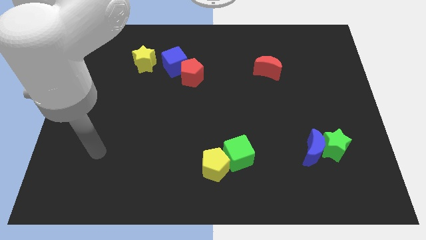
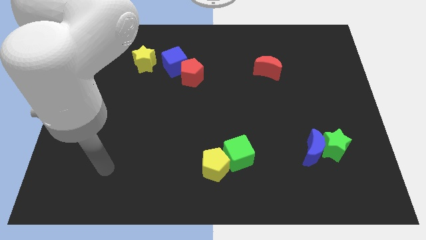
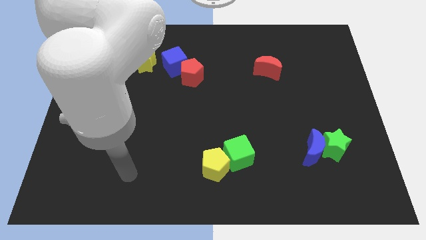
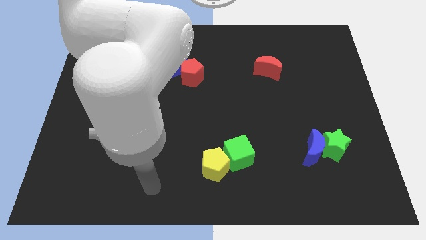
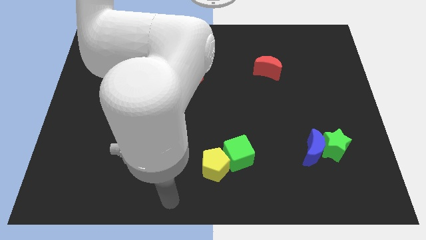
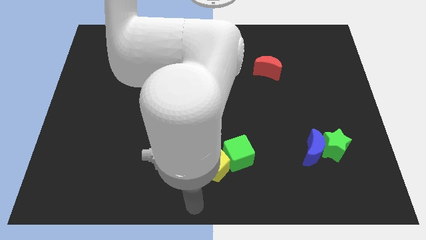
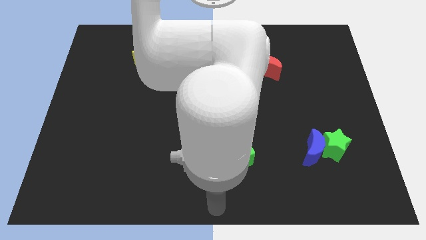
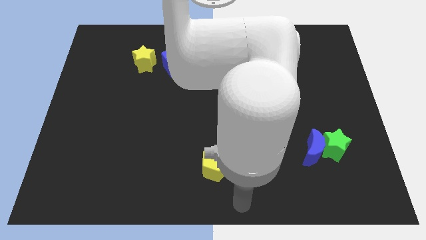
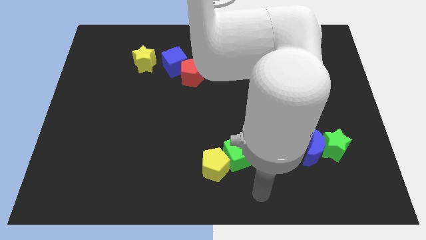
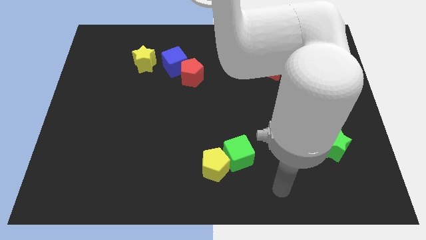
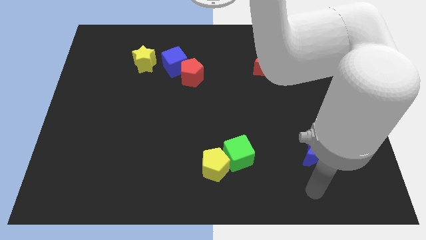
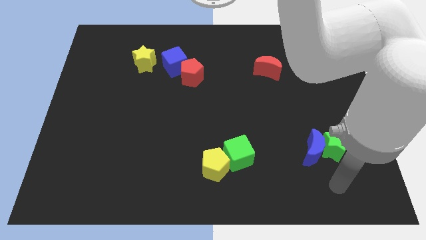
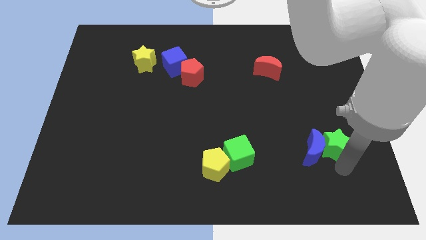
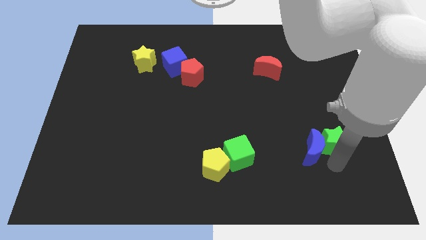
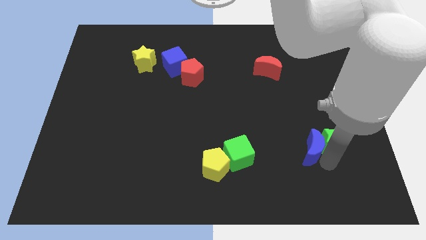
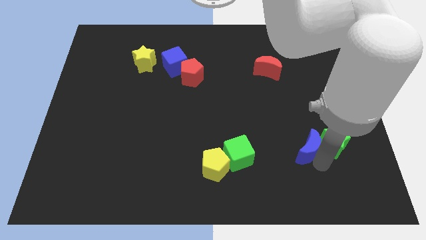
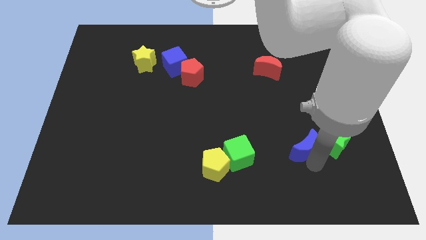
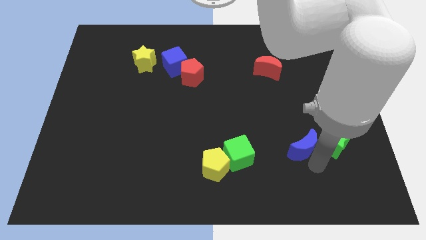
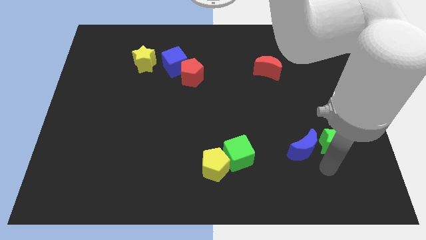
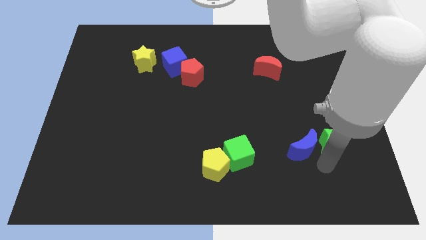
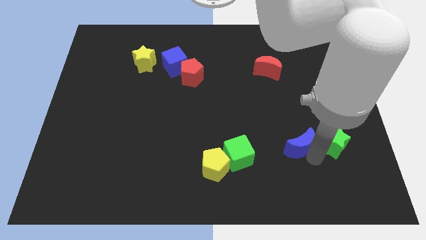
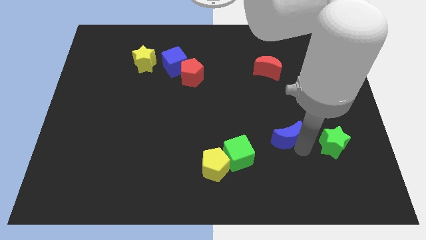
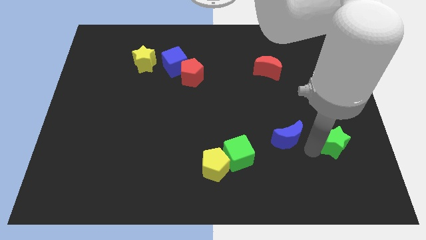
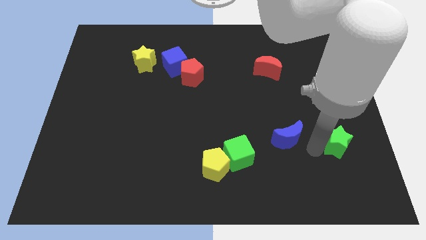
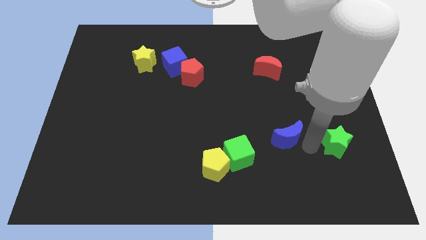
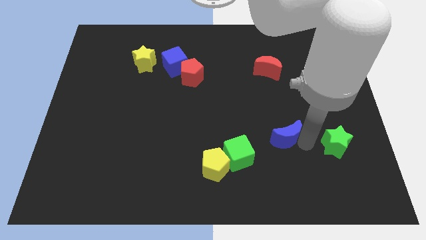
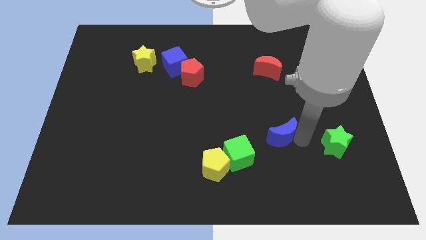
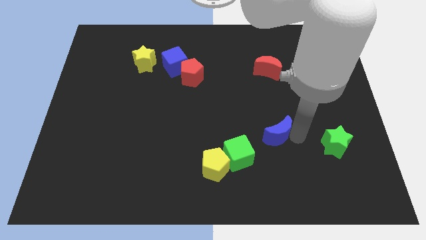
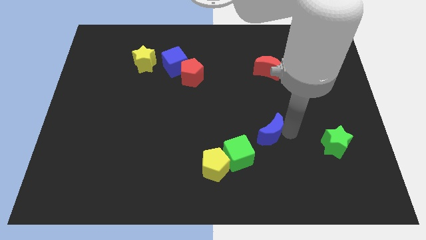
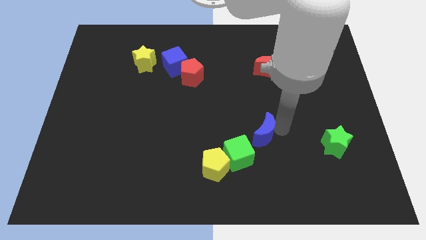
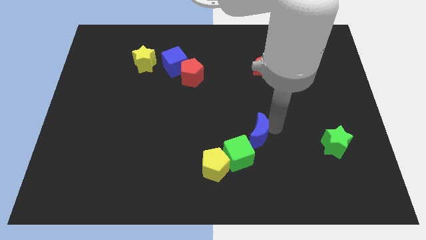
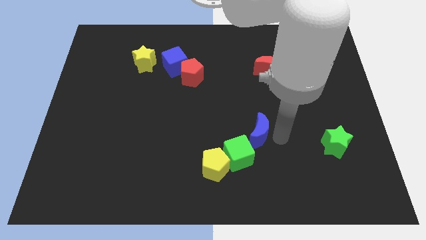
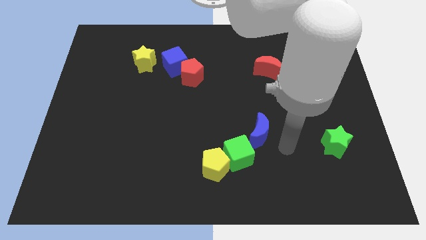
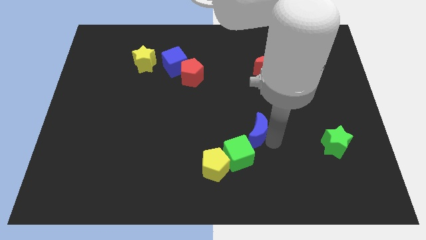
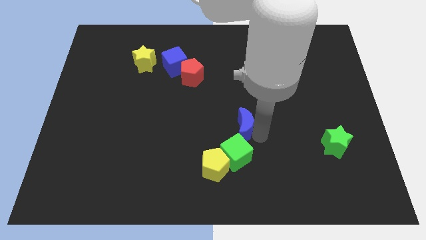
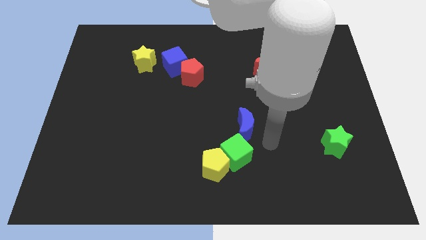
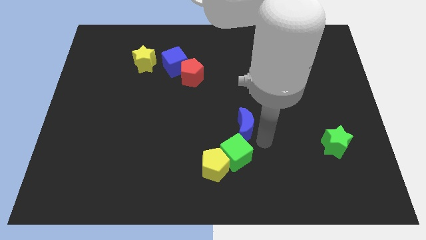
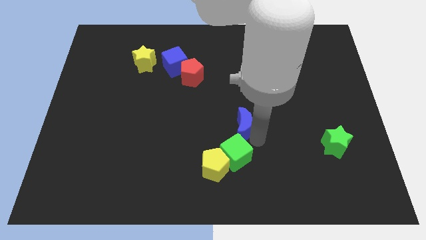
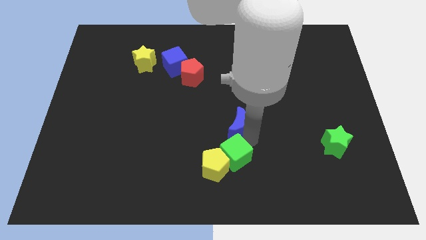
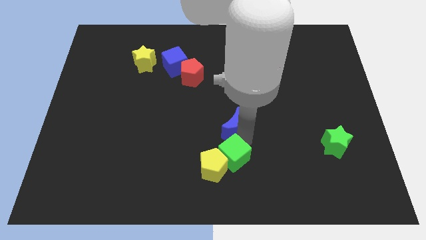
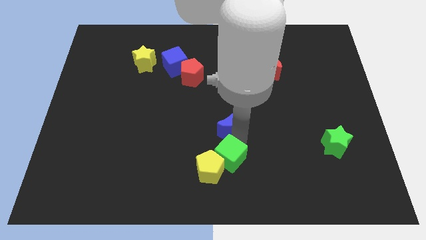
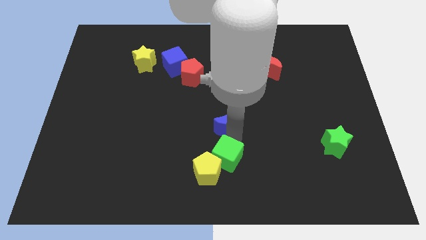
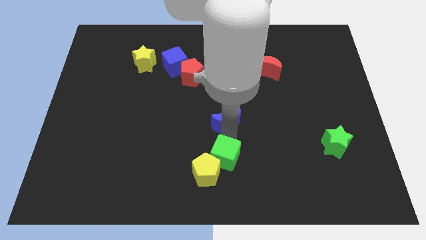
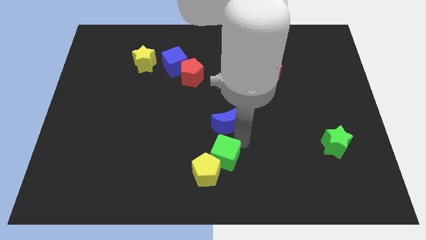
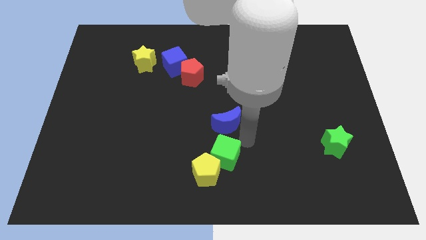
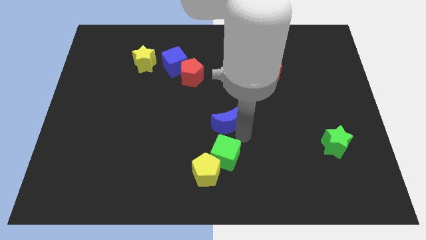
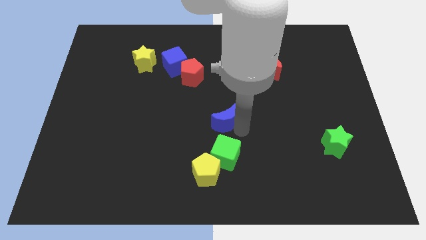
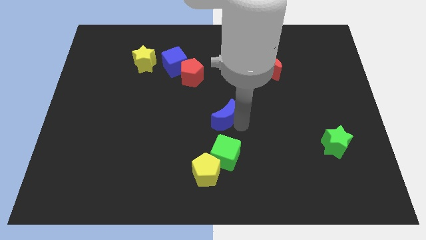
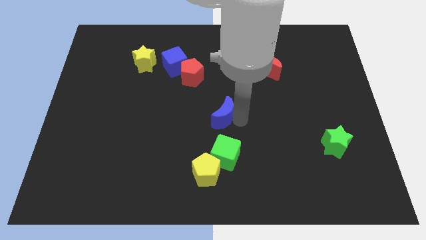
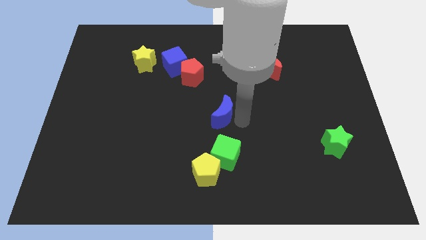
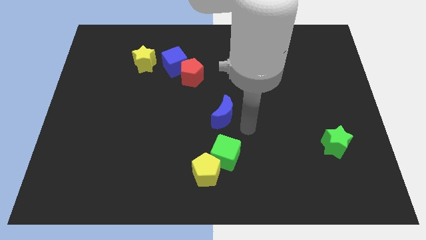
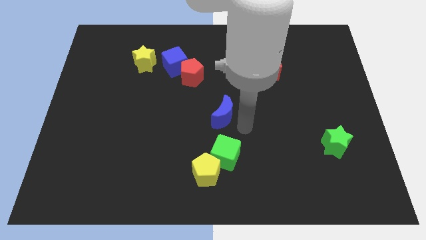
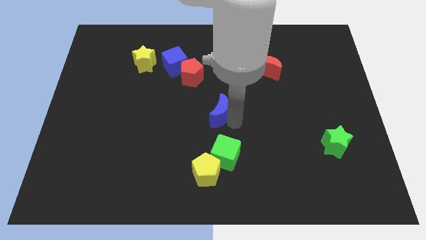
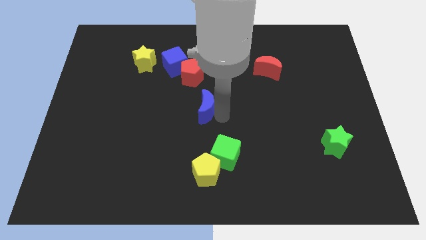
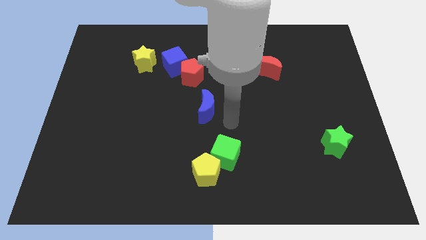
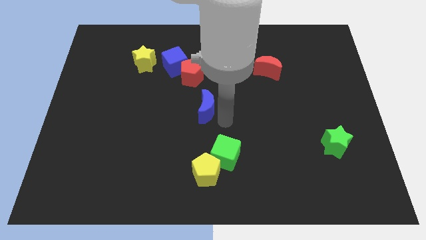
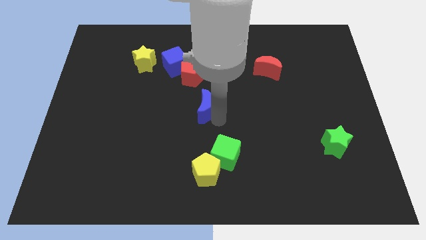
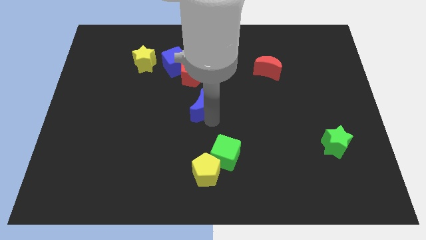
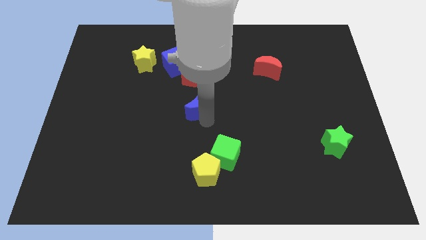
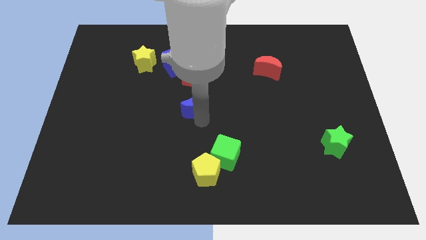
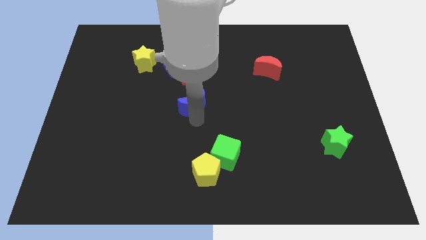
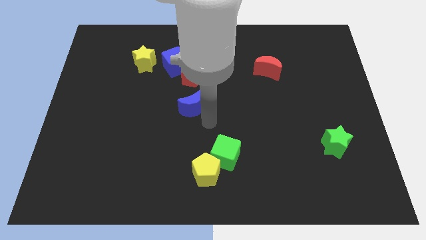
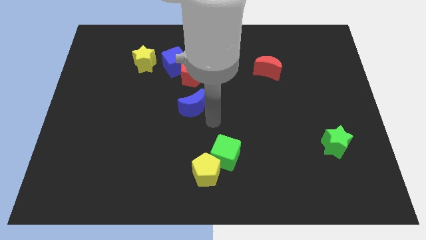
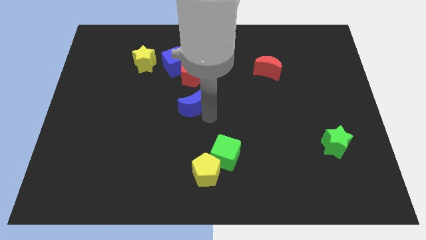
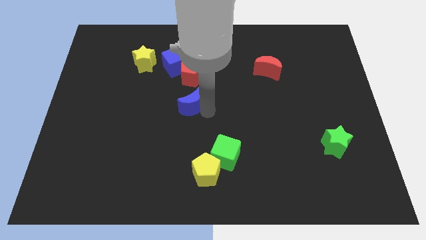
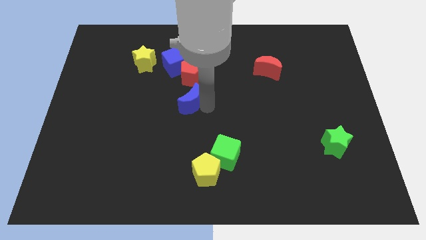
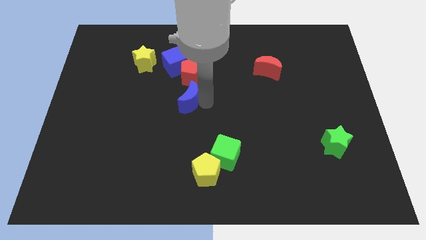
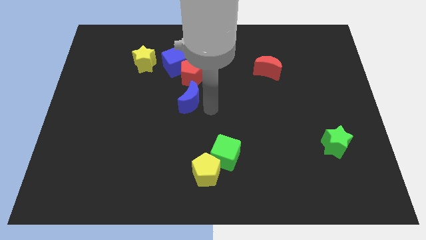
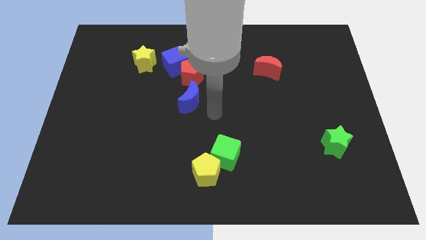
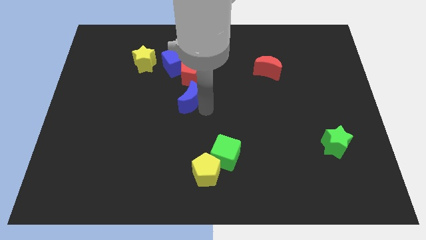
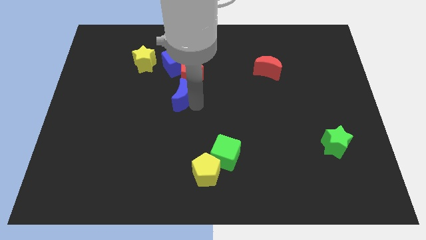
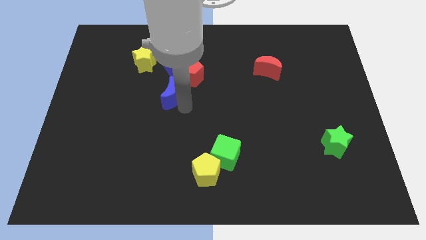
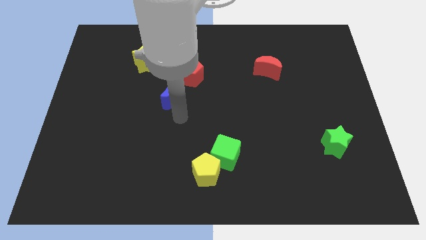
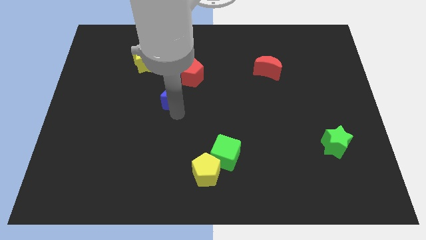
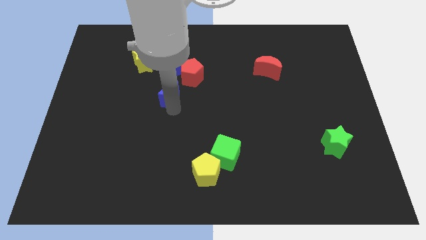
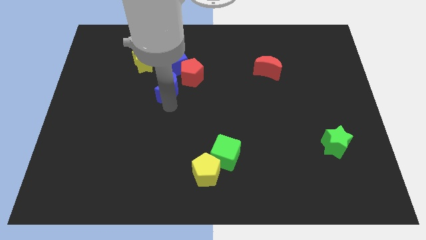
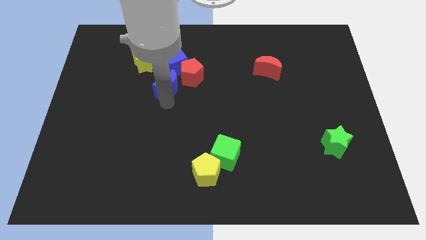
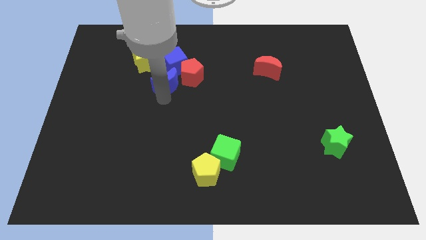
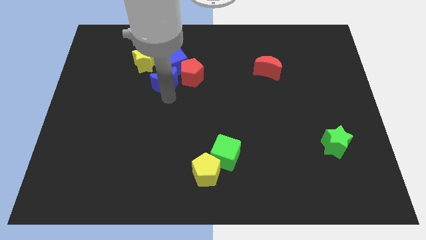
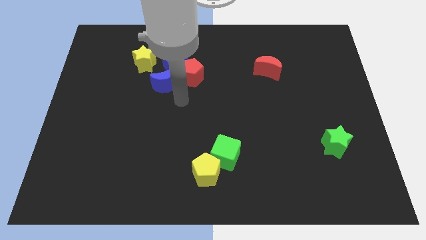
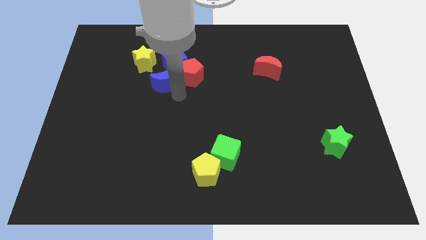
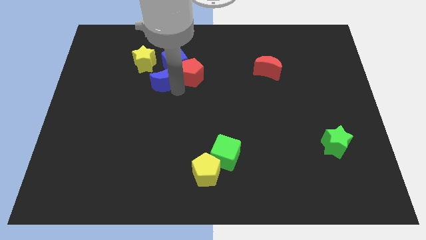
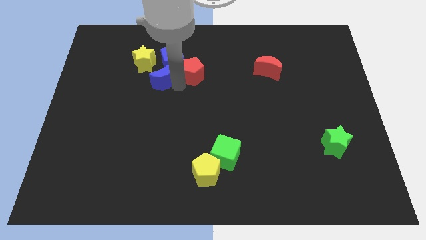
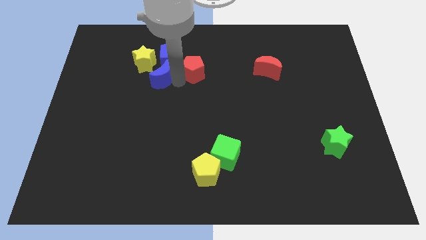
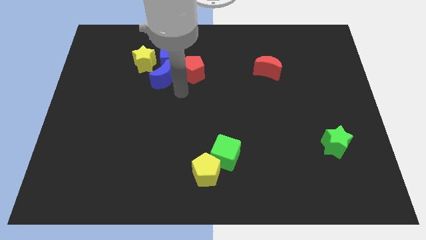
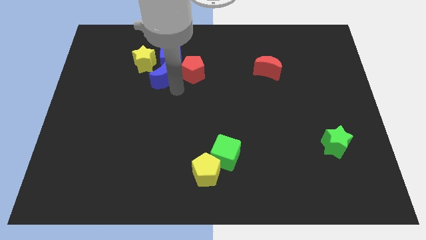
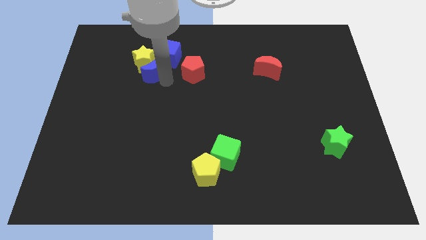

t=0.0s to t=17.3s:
put the blue moon close to the yellow star
